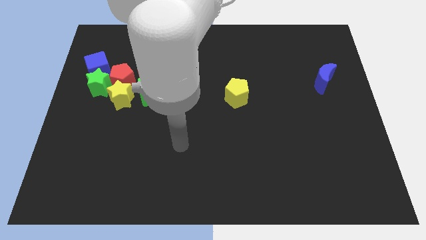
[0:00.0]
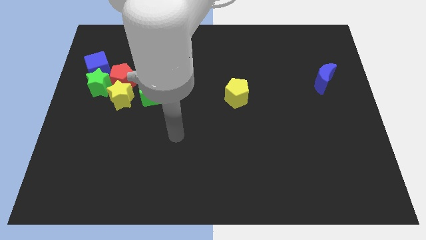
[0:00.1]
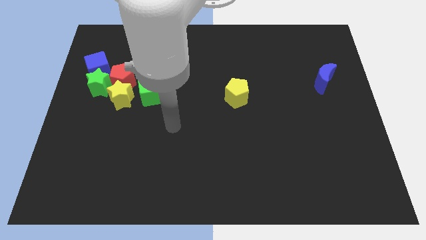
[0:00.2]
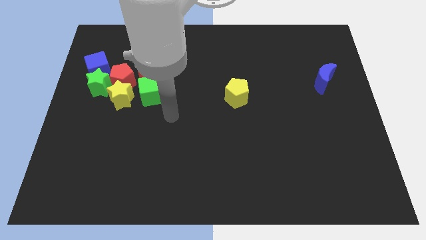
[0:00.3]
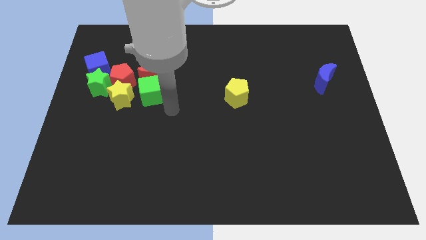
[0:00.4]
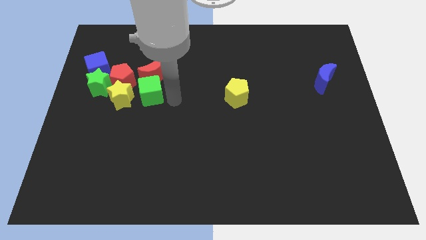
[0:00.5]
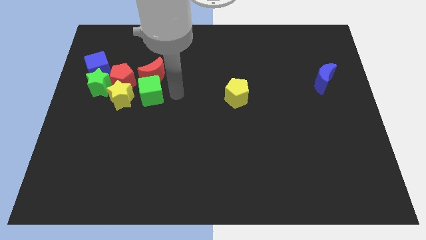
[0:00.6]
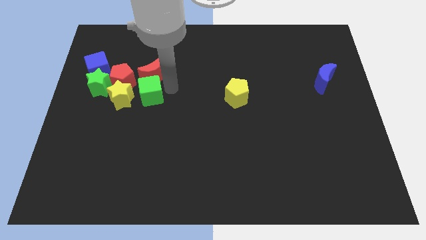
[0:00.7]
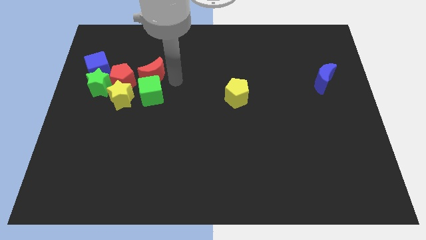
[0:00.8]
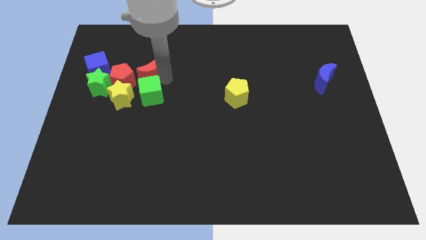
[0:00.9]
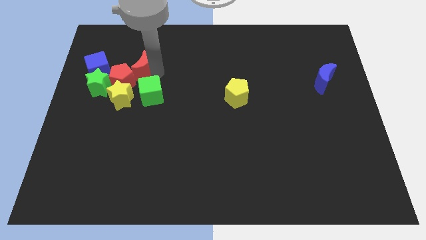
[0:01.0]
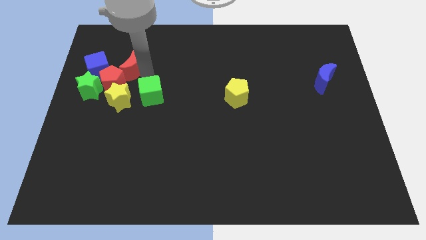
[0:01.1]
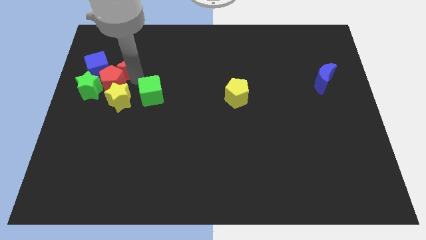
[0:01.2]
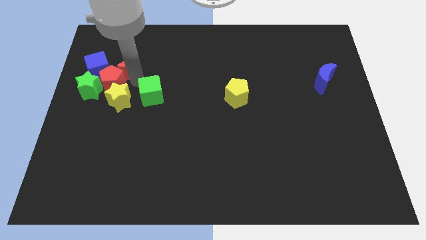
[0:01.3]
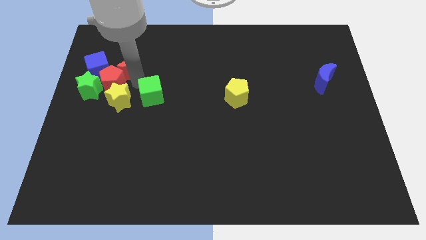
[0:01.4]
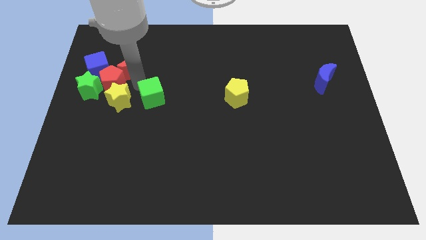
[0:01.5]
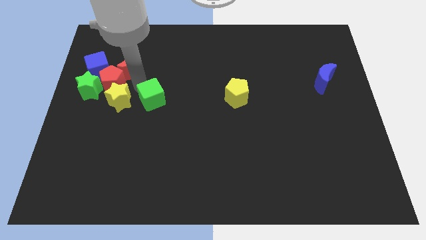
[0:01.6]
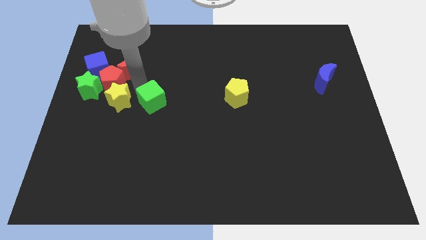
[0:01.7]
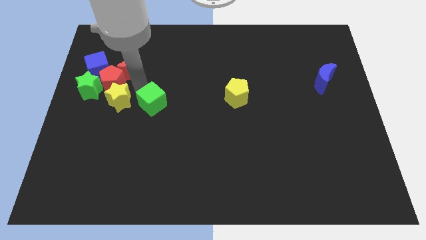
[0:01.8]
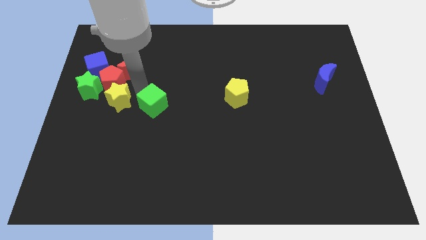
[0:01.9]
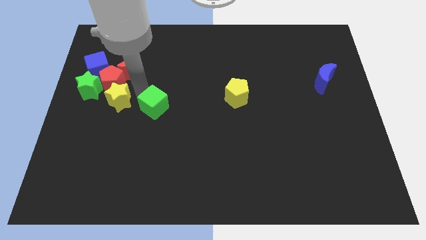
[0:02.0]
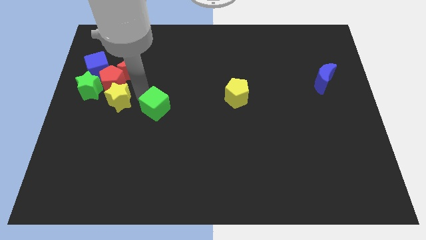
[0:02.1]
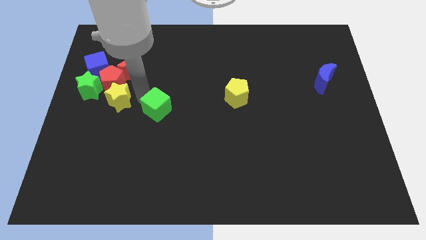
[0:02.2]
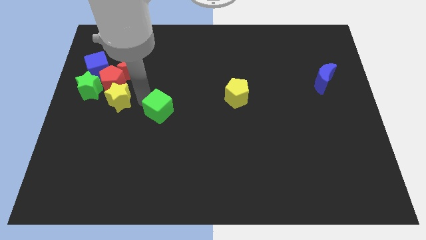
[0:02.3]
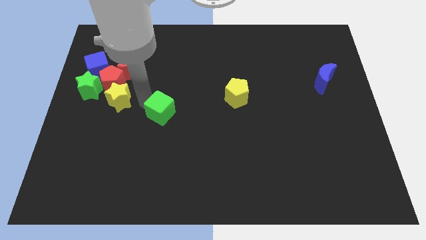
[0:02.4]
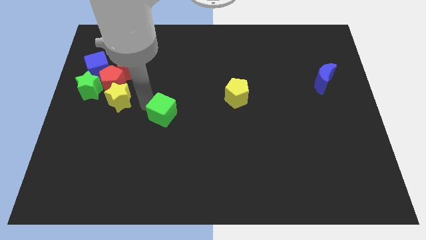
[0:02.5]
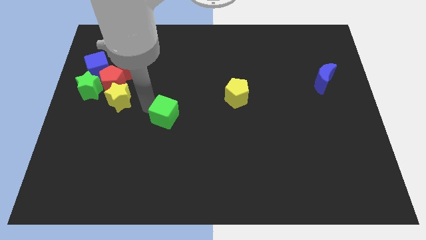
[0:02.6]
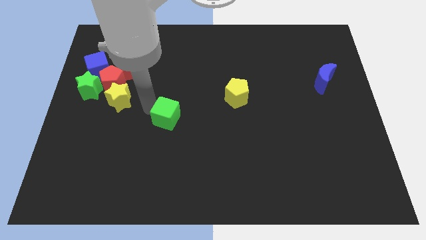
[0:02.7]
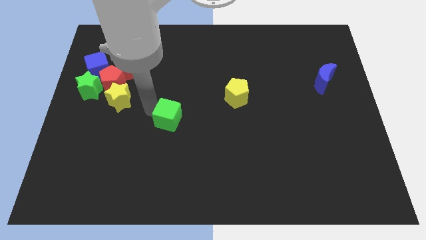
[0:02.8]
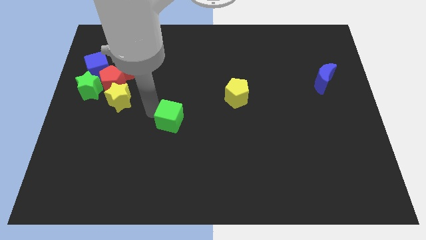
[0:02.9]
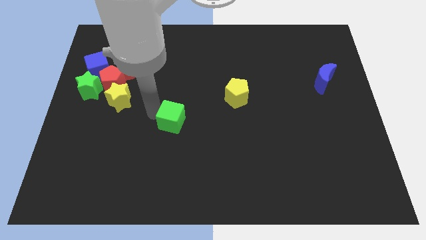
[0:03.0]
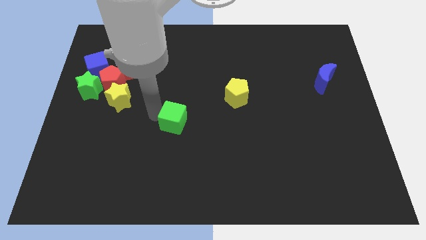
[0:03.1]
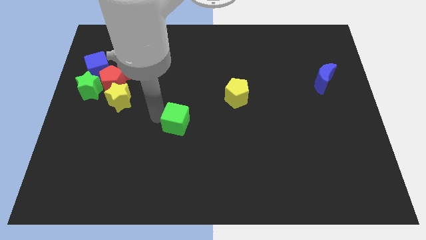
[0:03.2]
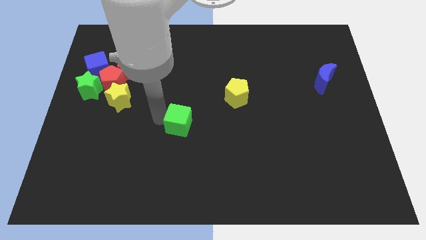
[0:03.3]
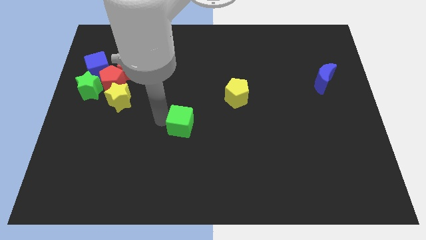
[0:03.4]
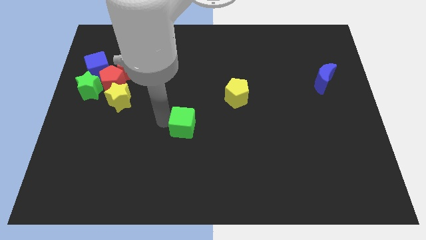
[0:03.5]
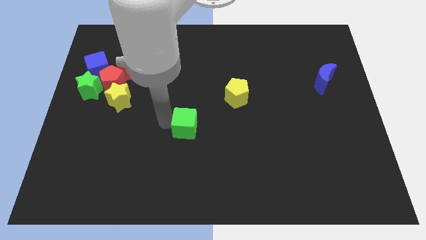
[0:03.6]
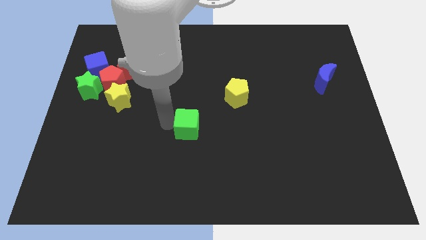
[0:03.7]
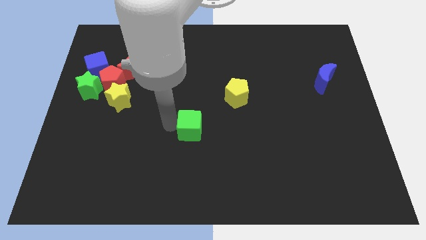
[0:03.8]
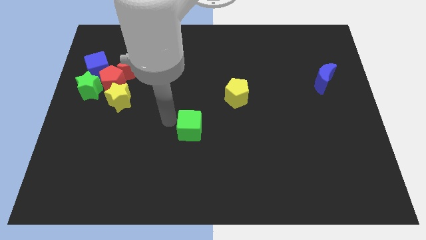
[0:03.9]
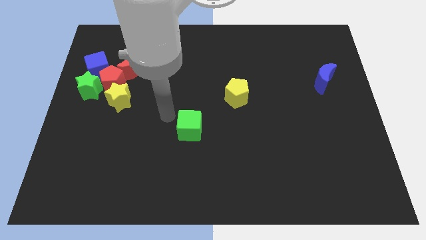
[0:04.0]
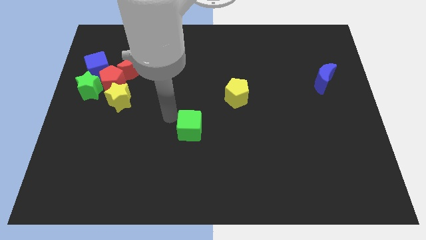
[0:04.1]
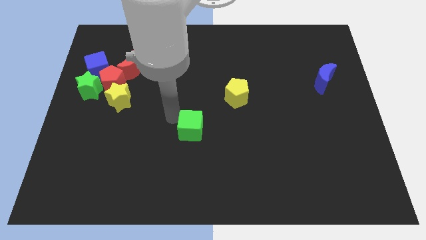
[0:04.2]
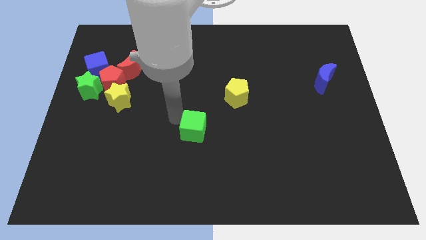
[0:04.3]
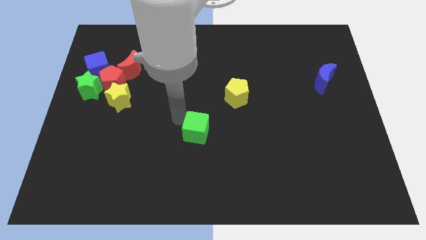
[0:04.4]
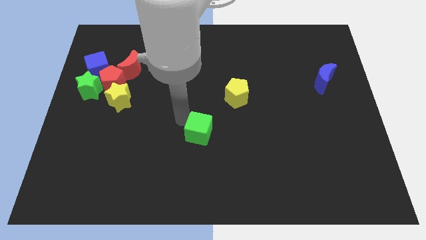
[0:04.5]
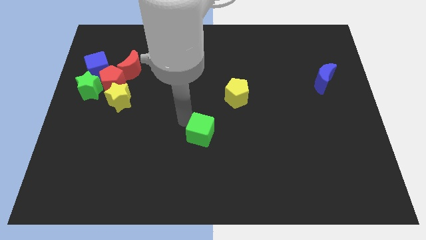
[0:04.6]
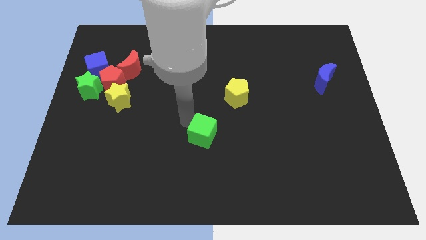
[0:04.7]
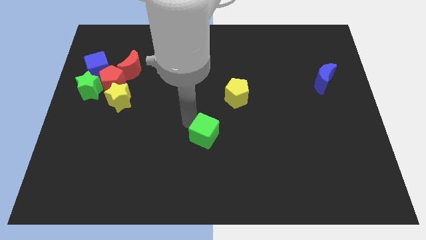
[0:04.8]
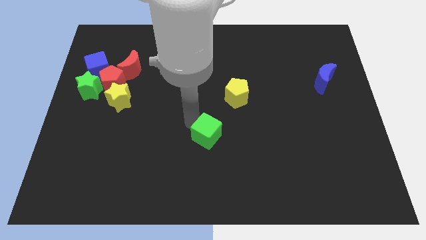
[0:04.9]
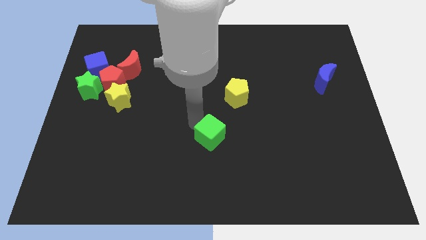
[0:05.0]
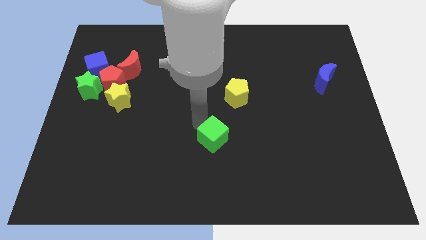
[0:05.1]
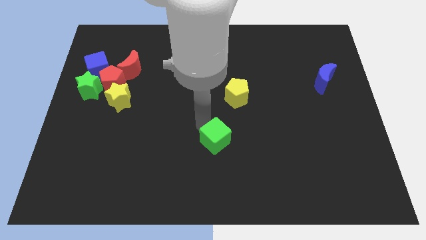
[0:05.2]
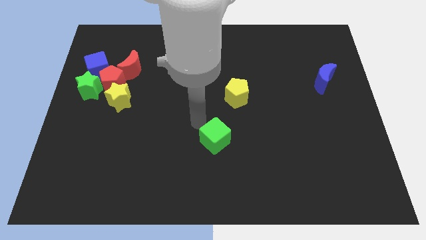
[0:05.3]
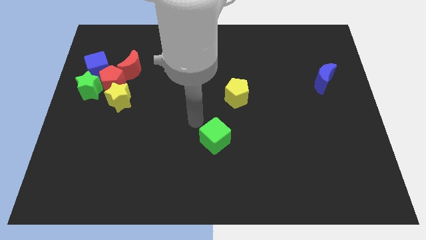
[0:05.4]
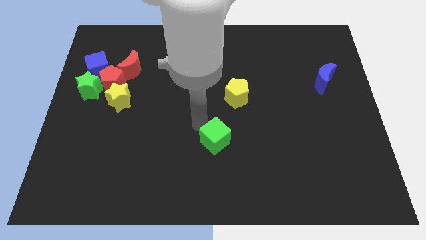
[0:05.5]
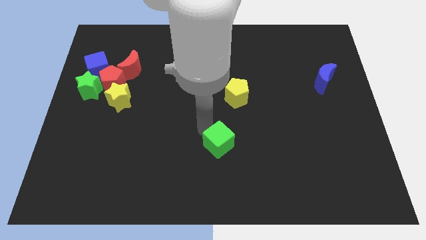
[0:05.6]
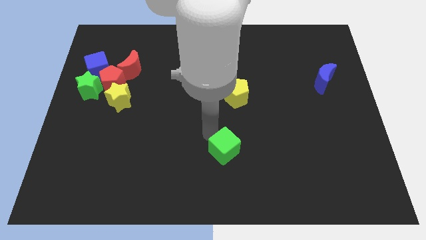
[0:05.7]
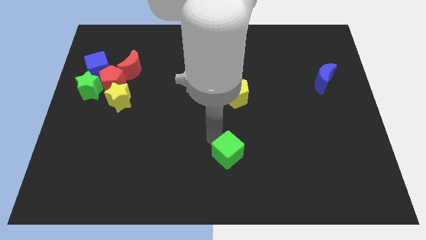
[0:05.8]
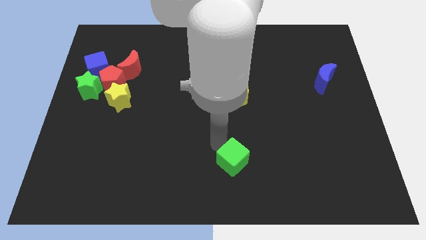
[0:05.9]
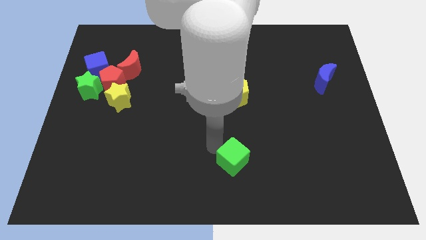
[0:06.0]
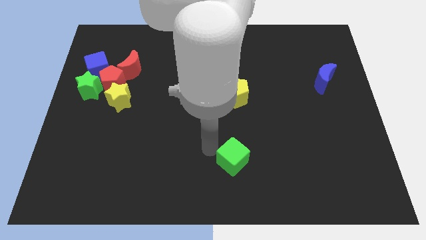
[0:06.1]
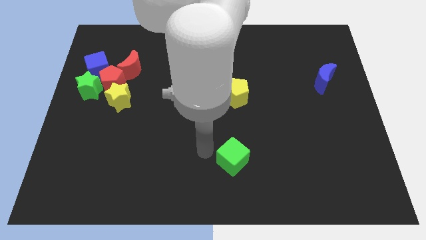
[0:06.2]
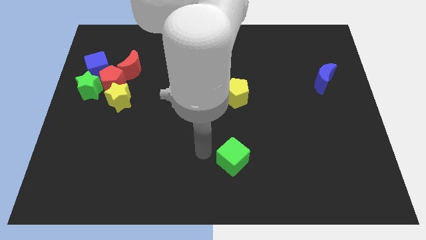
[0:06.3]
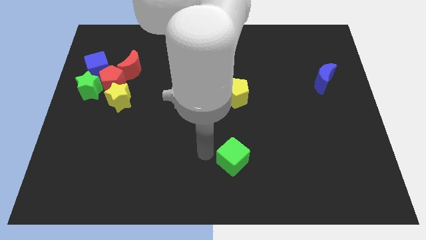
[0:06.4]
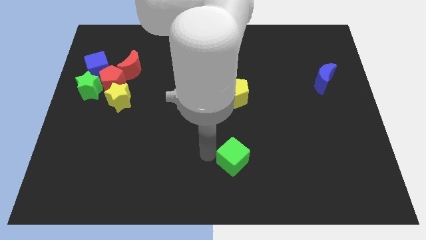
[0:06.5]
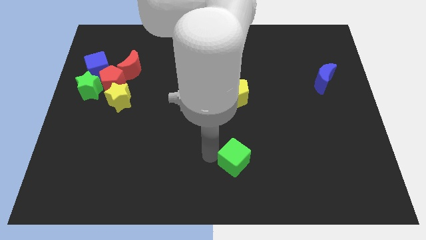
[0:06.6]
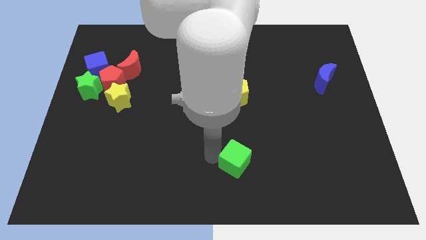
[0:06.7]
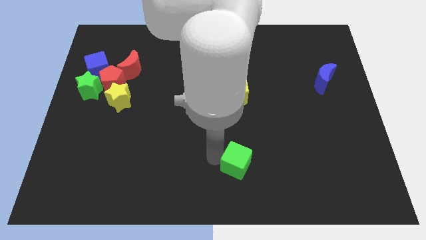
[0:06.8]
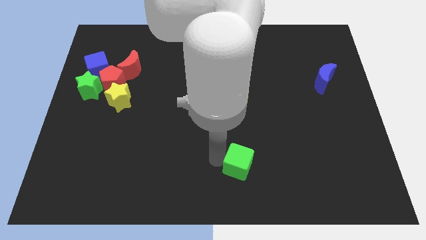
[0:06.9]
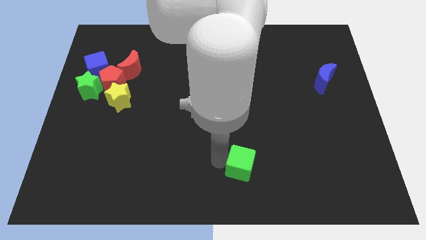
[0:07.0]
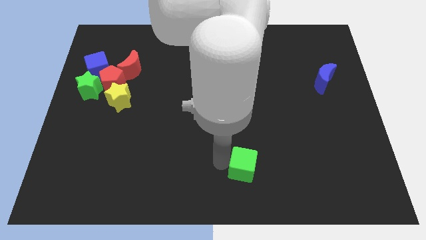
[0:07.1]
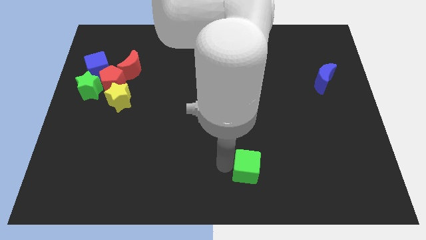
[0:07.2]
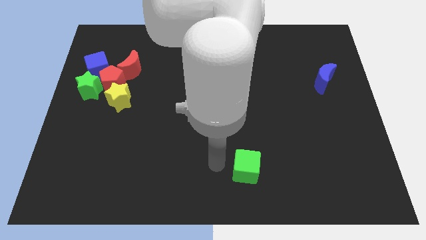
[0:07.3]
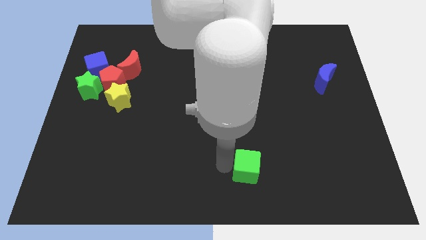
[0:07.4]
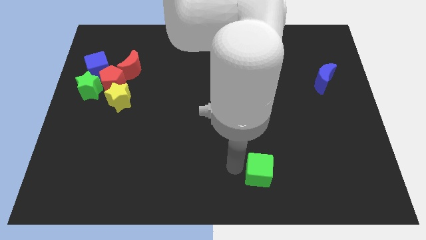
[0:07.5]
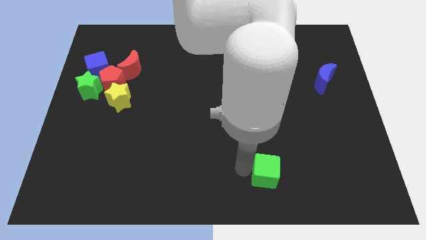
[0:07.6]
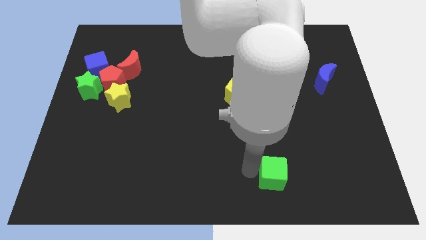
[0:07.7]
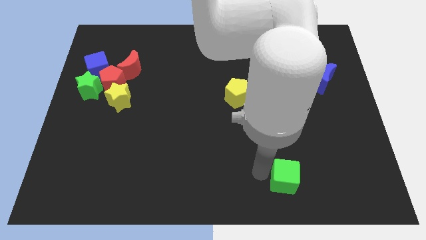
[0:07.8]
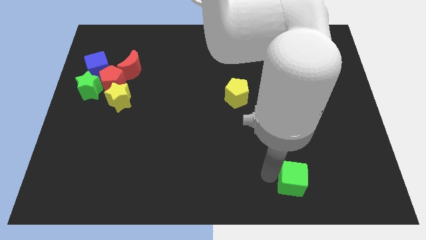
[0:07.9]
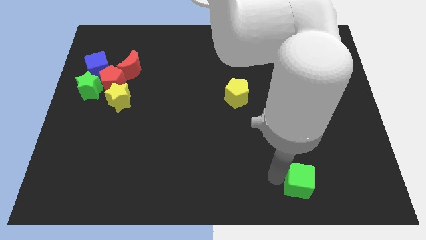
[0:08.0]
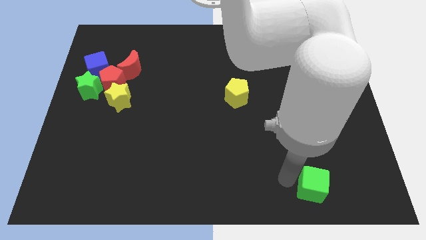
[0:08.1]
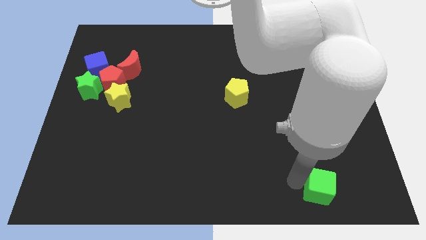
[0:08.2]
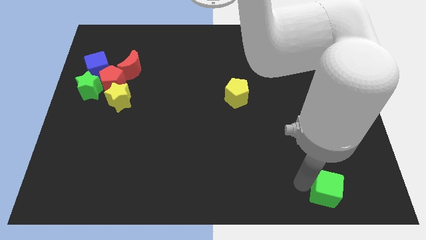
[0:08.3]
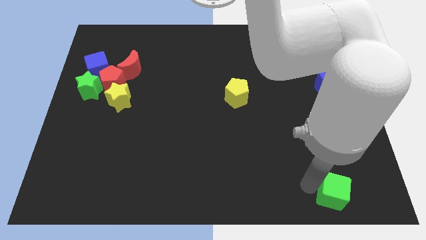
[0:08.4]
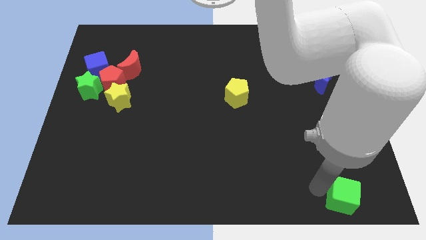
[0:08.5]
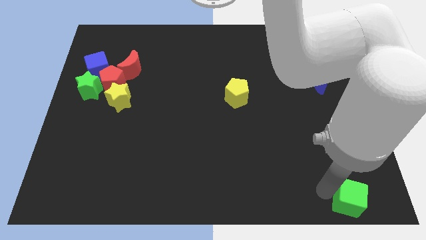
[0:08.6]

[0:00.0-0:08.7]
put the green cube to the bottom right of the board
